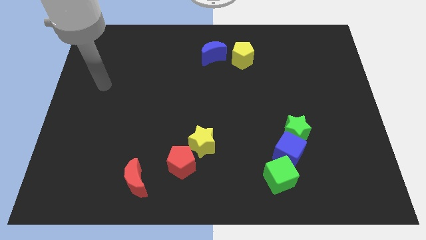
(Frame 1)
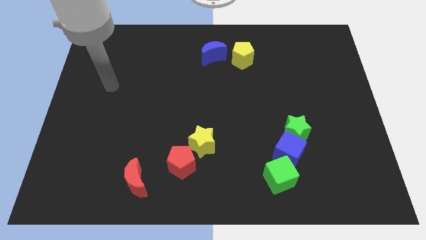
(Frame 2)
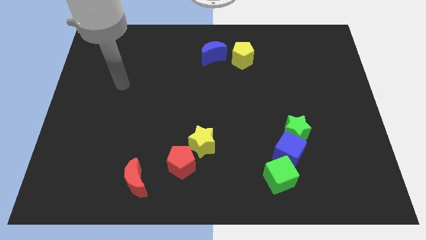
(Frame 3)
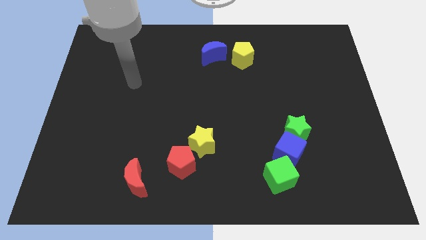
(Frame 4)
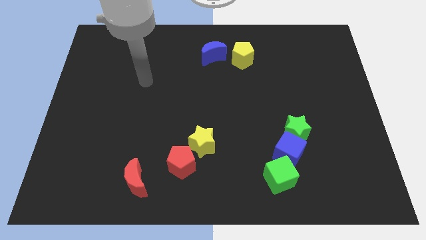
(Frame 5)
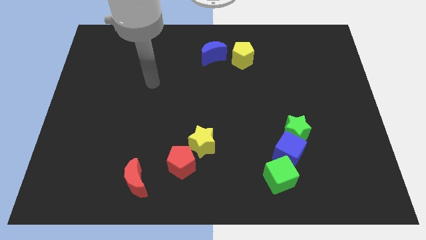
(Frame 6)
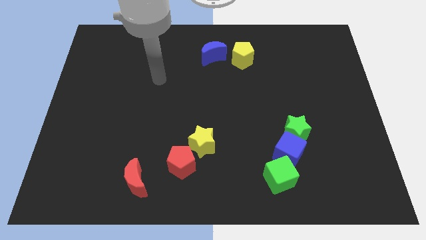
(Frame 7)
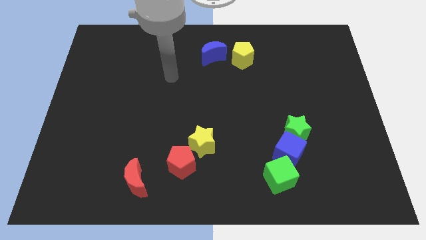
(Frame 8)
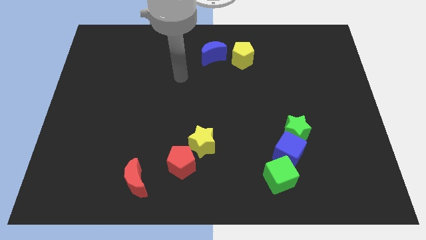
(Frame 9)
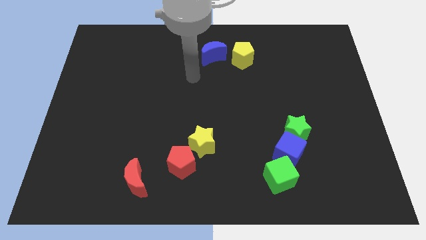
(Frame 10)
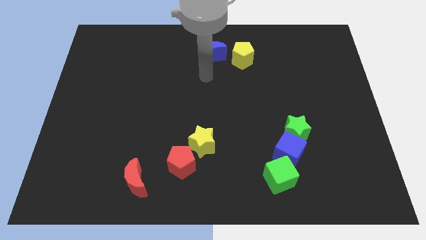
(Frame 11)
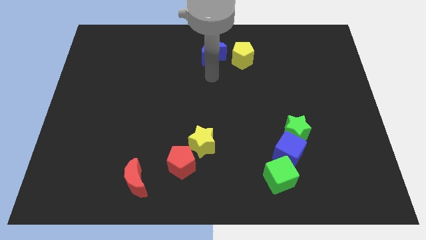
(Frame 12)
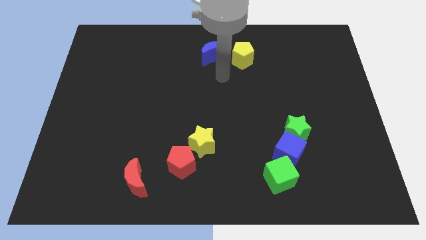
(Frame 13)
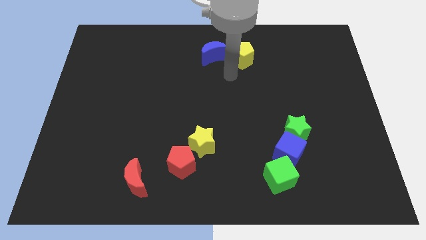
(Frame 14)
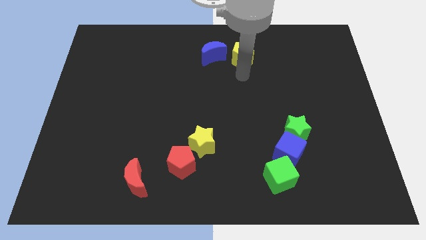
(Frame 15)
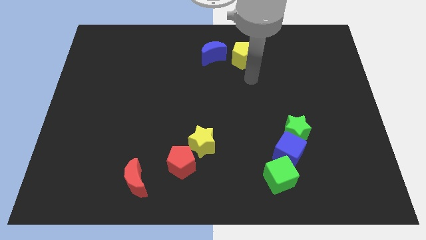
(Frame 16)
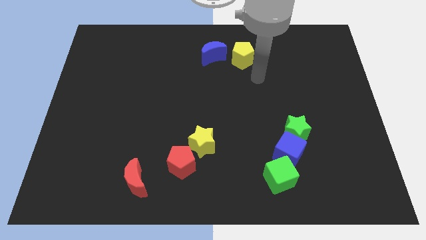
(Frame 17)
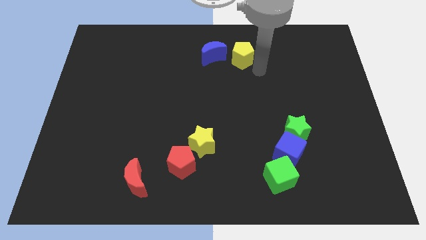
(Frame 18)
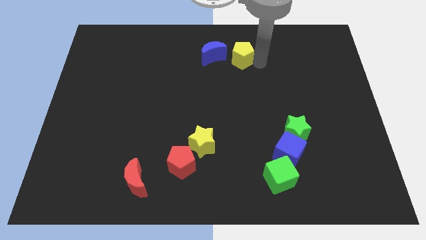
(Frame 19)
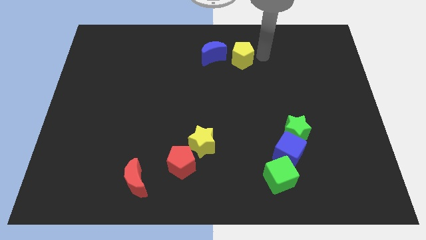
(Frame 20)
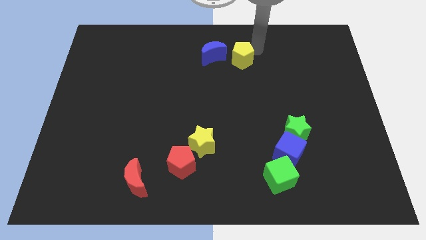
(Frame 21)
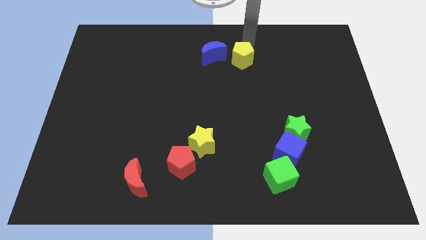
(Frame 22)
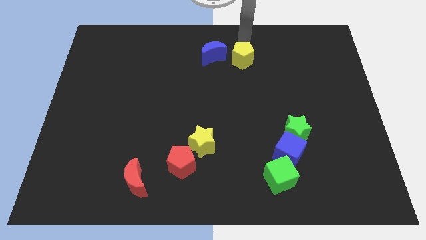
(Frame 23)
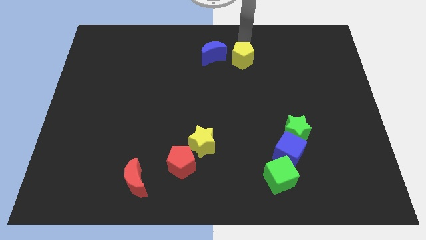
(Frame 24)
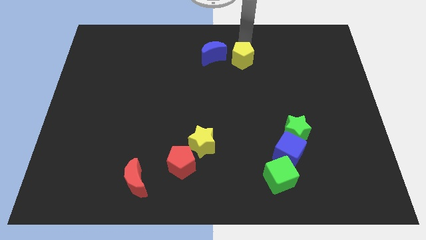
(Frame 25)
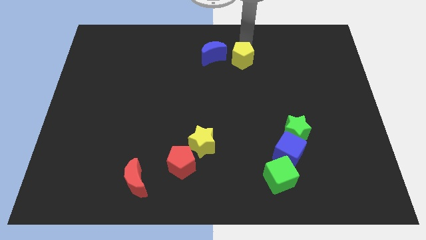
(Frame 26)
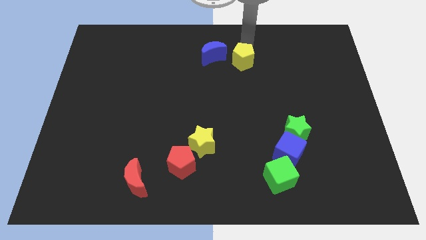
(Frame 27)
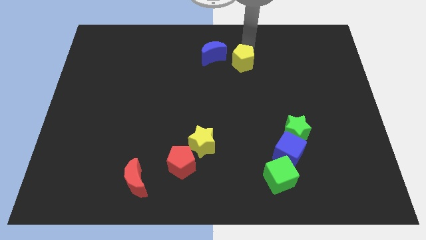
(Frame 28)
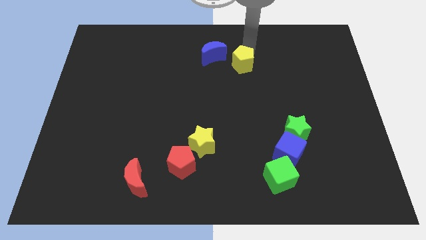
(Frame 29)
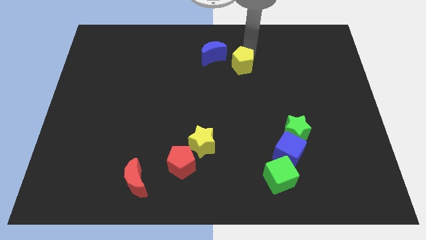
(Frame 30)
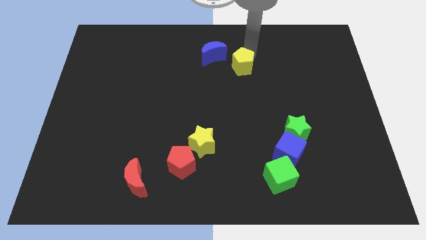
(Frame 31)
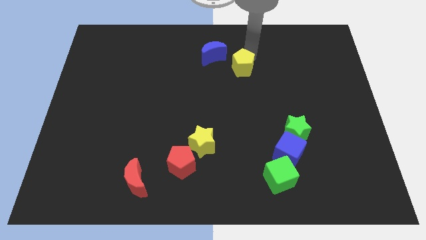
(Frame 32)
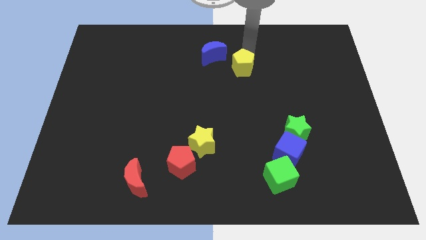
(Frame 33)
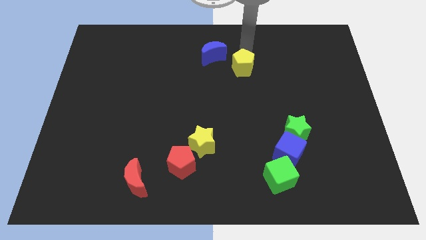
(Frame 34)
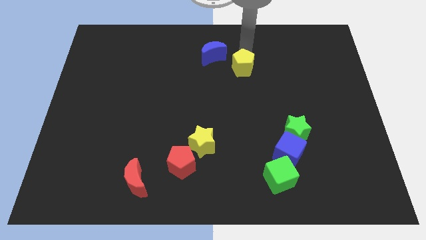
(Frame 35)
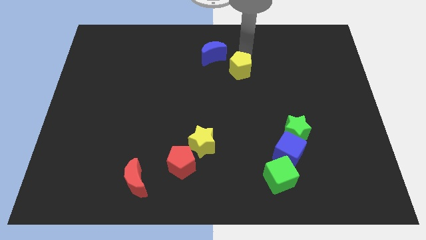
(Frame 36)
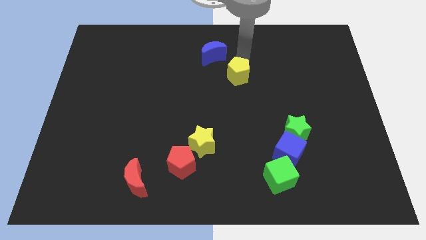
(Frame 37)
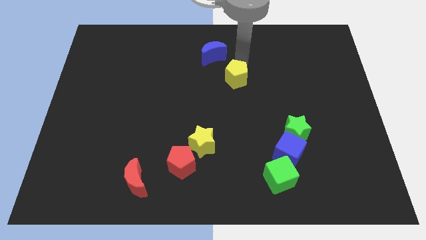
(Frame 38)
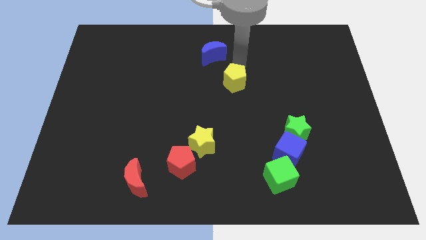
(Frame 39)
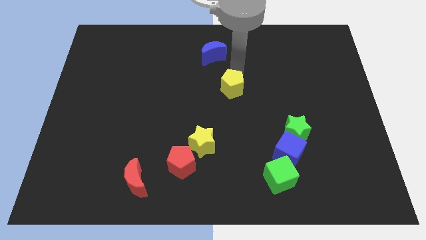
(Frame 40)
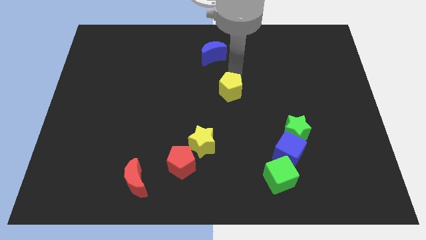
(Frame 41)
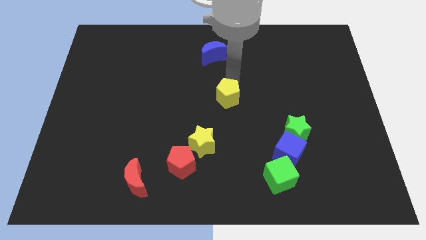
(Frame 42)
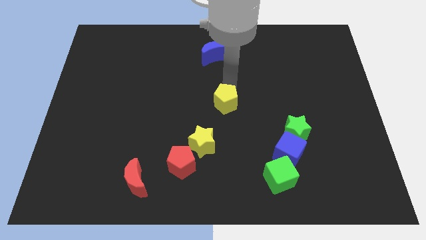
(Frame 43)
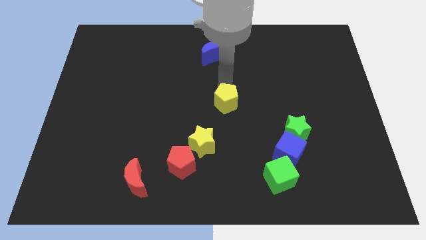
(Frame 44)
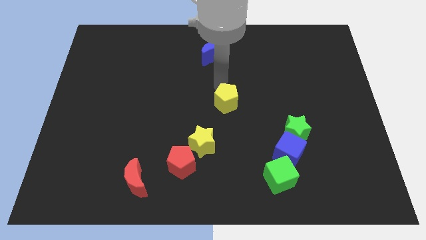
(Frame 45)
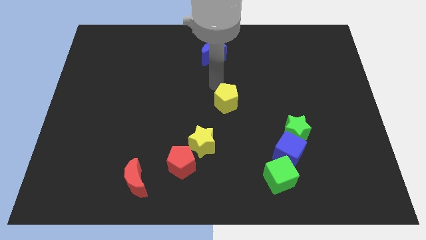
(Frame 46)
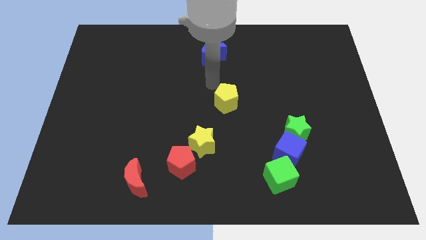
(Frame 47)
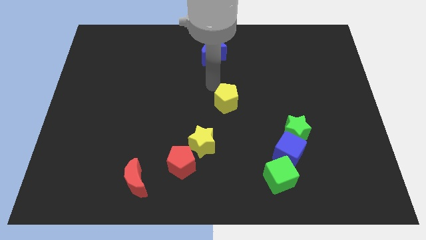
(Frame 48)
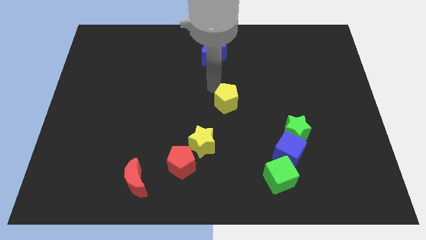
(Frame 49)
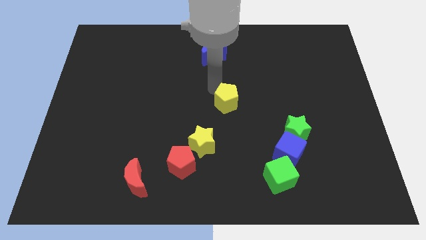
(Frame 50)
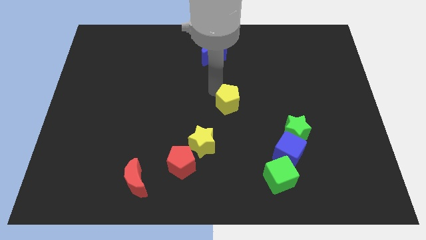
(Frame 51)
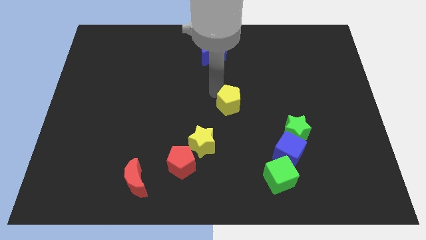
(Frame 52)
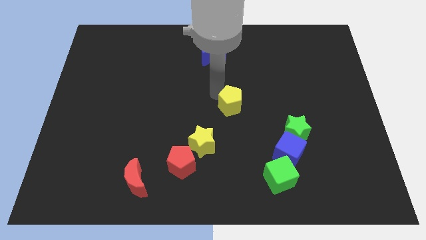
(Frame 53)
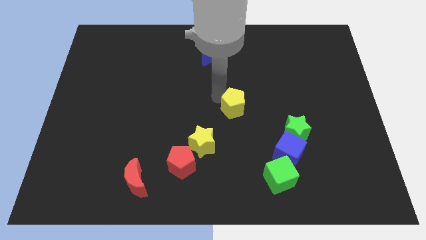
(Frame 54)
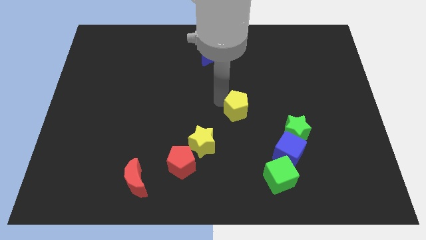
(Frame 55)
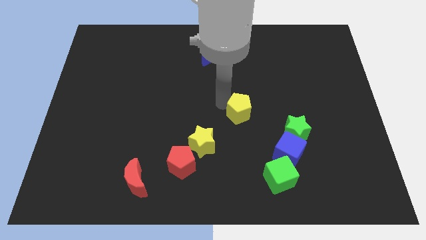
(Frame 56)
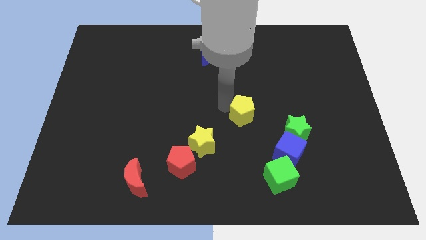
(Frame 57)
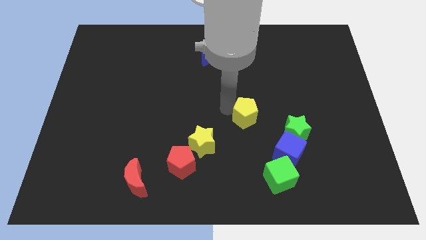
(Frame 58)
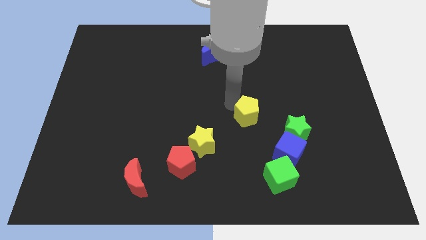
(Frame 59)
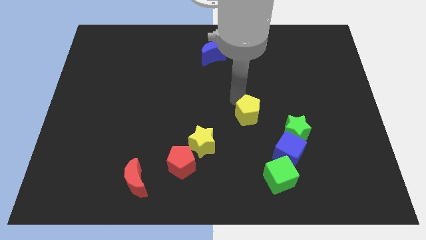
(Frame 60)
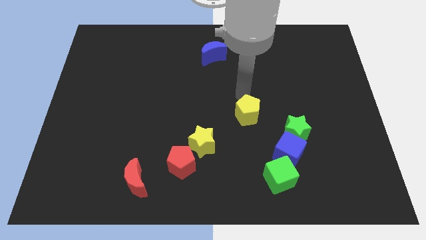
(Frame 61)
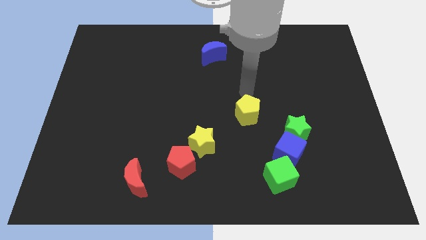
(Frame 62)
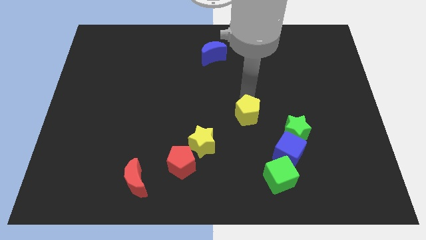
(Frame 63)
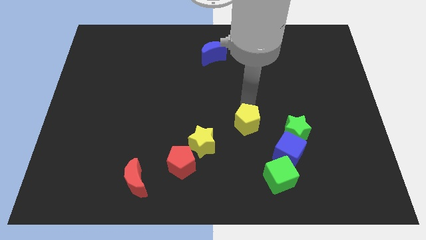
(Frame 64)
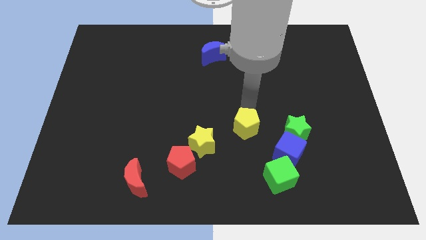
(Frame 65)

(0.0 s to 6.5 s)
push the yellow pentagon to the right of the yellow star

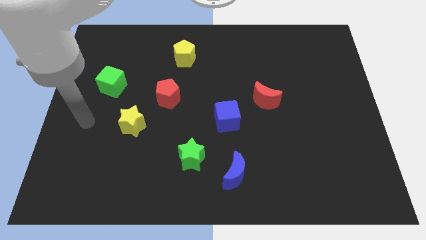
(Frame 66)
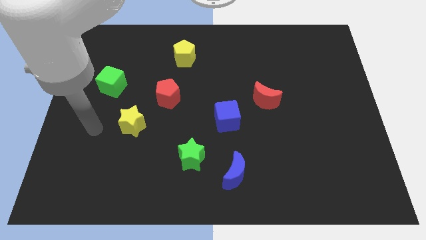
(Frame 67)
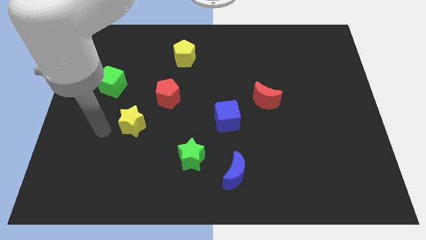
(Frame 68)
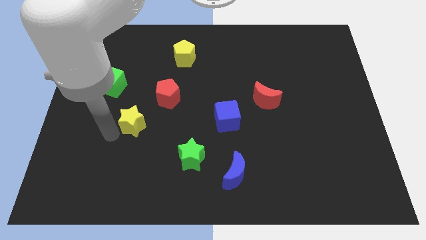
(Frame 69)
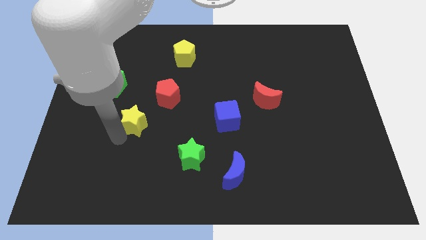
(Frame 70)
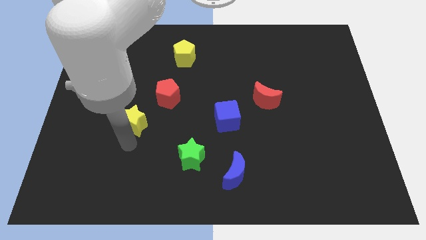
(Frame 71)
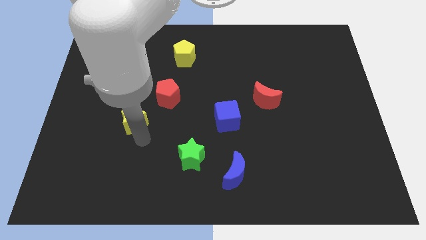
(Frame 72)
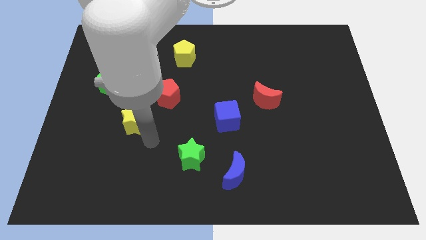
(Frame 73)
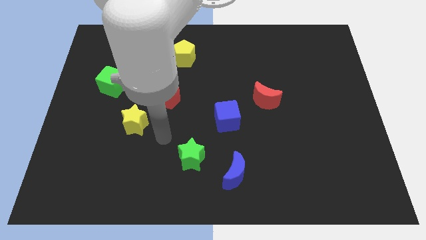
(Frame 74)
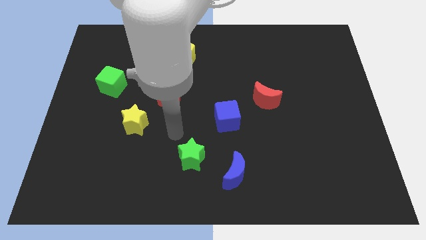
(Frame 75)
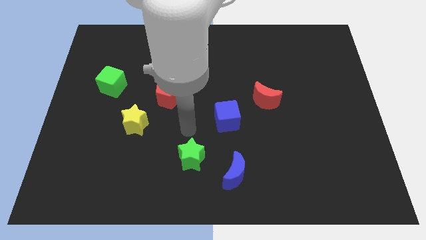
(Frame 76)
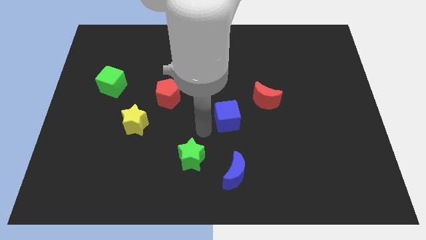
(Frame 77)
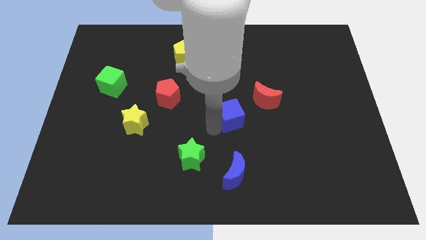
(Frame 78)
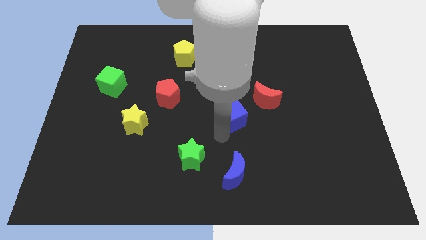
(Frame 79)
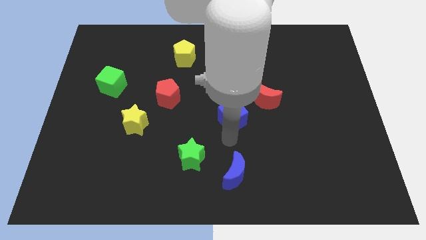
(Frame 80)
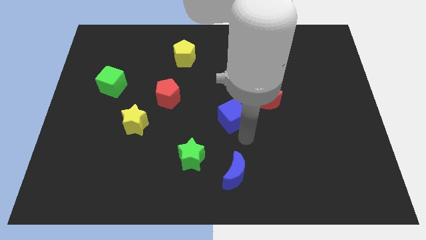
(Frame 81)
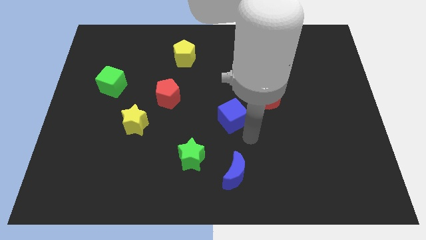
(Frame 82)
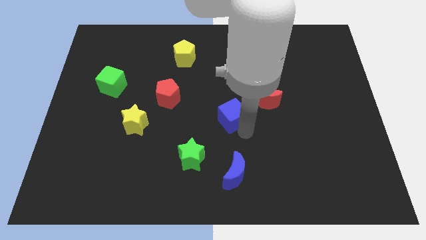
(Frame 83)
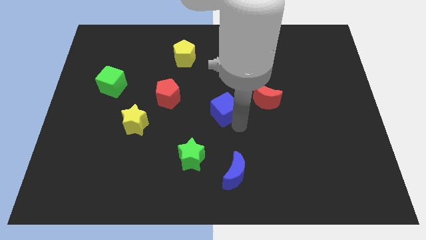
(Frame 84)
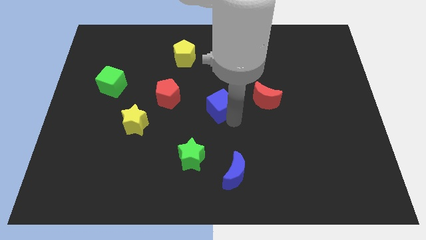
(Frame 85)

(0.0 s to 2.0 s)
slide the blue cube right of the red pentagon
